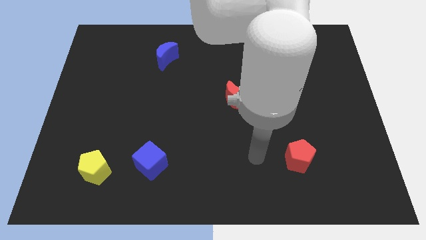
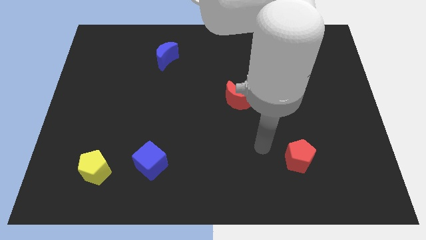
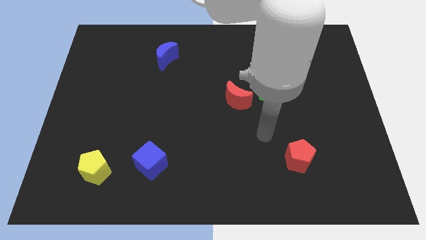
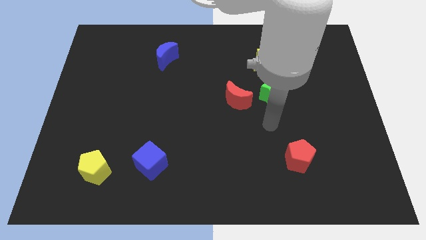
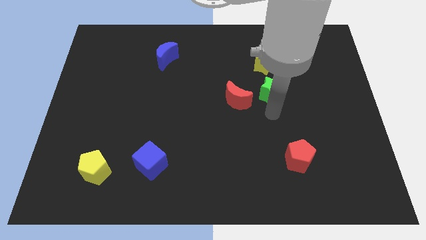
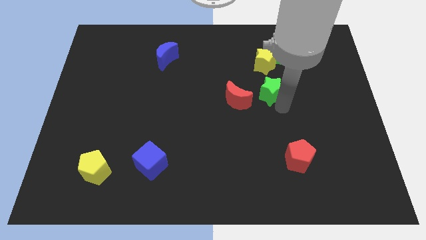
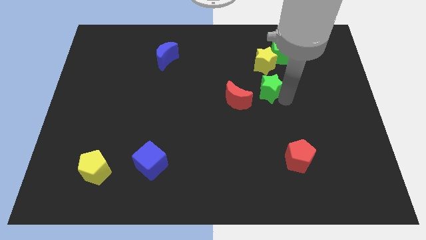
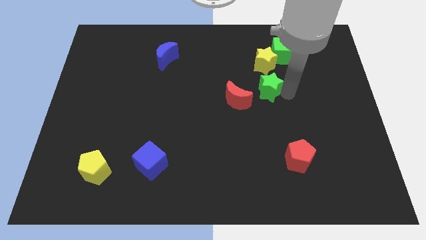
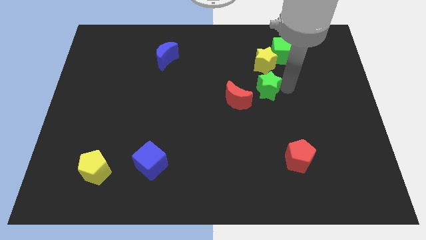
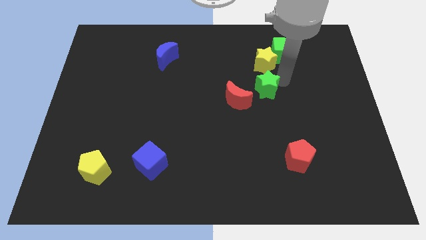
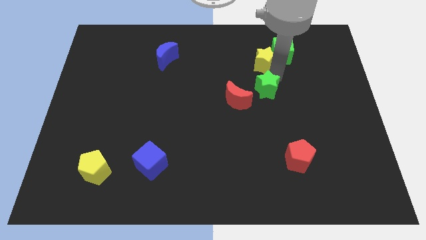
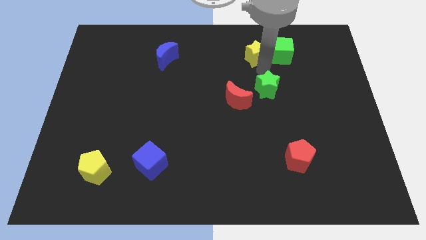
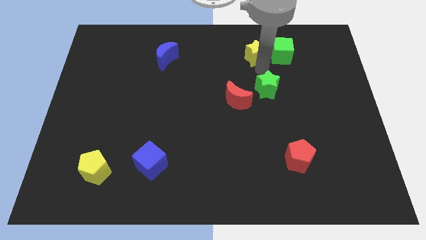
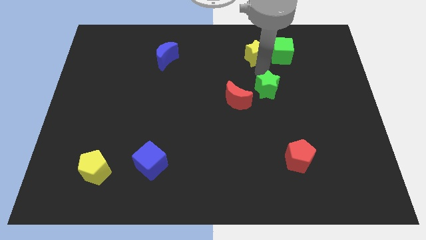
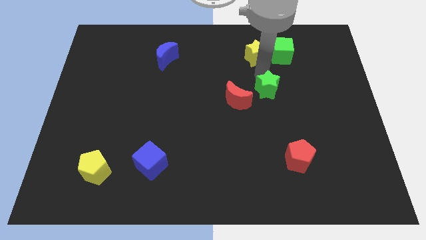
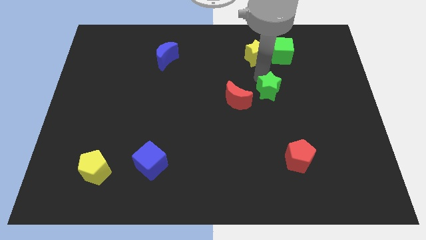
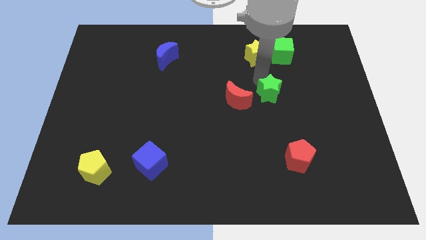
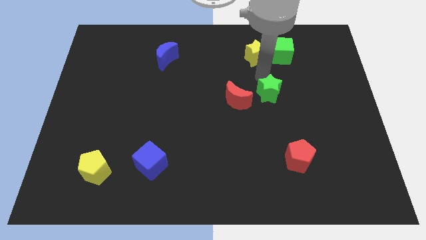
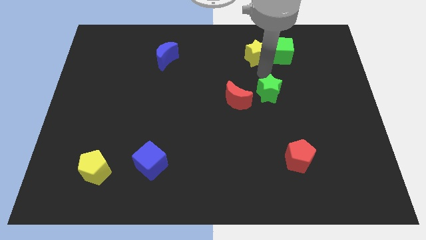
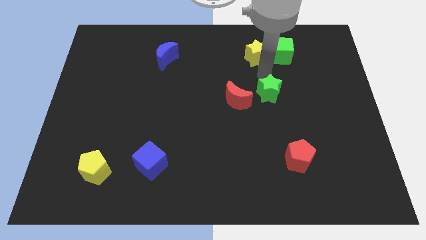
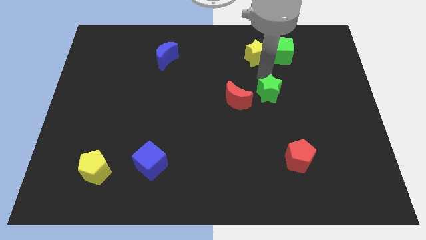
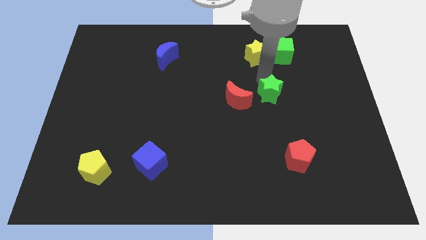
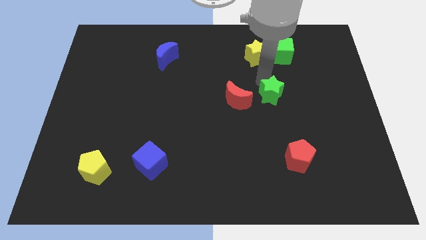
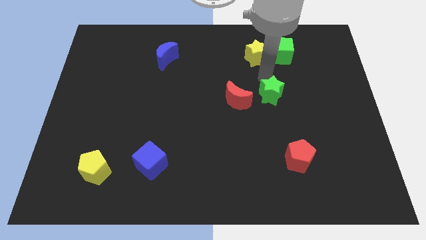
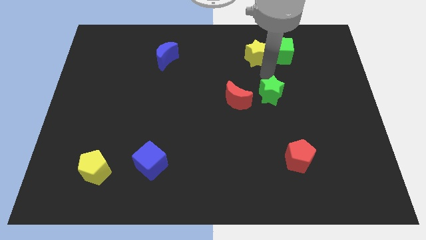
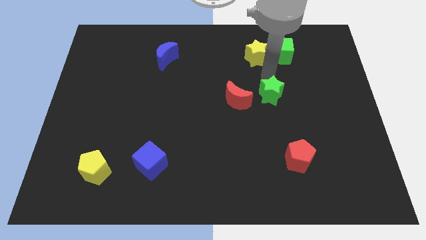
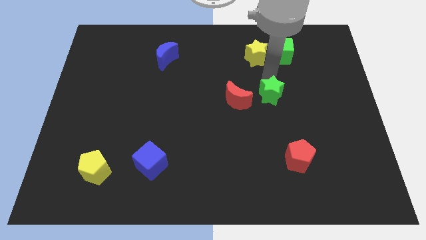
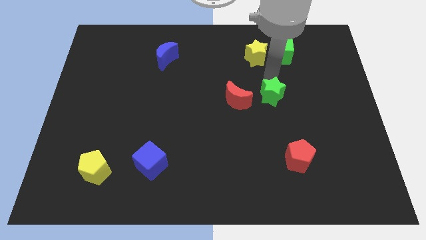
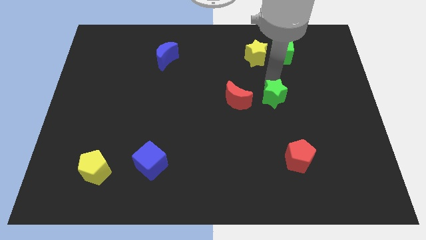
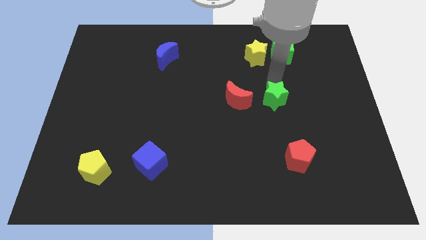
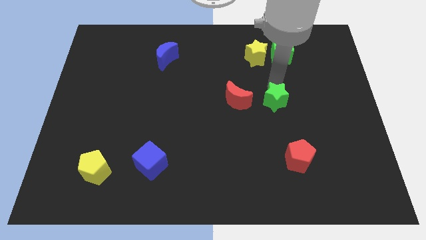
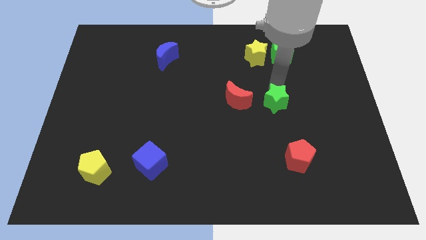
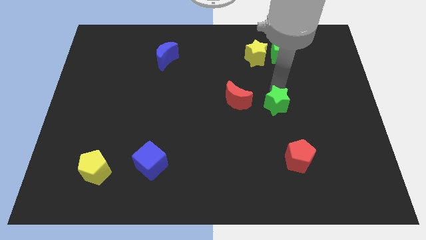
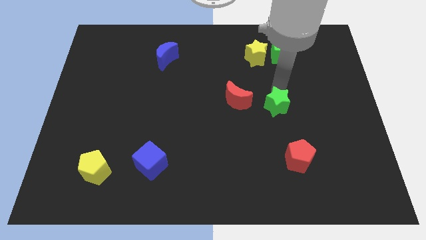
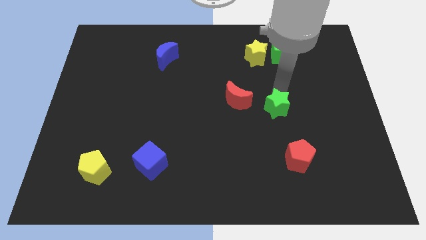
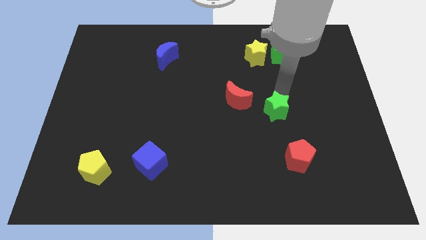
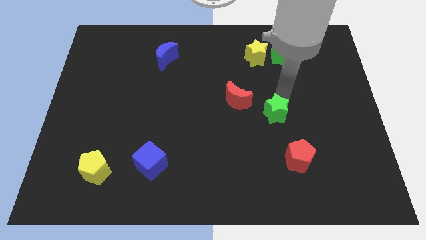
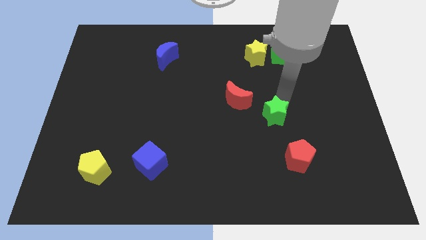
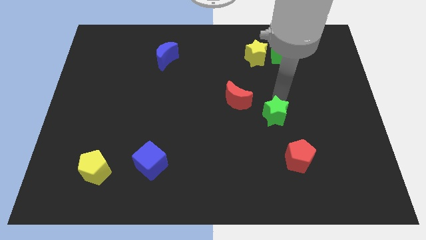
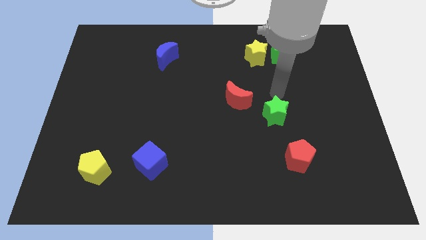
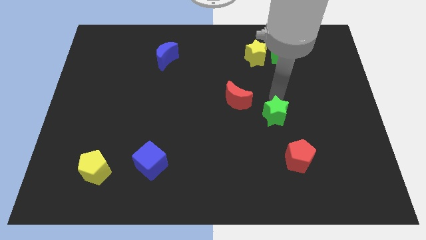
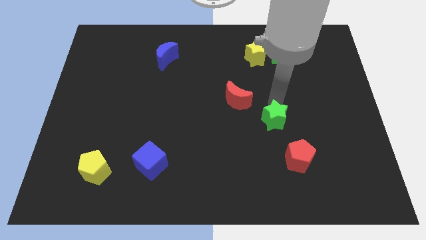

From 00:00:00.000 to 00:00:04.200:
move the green star down a little

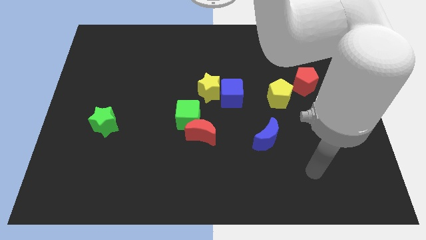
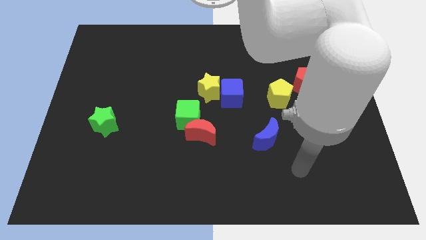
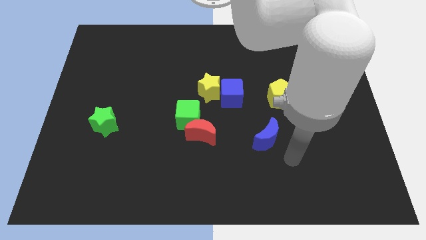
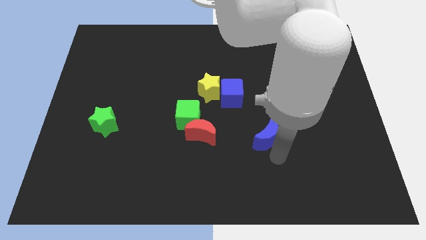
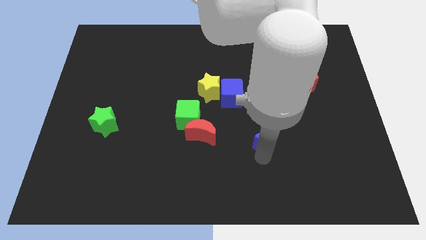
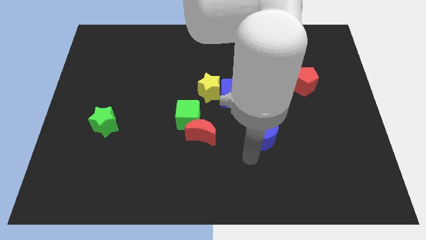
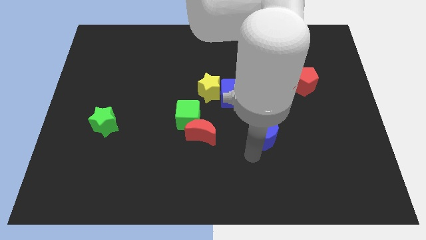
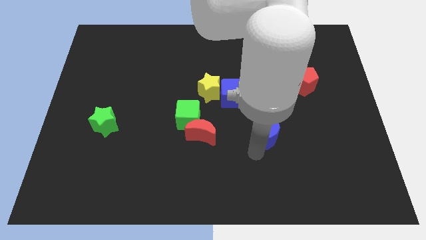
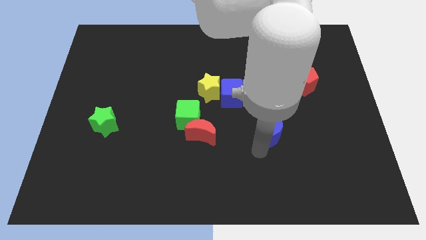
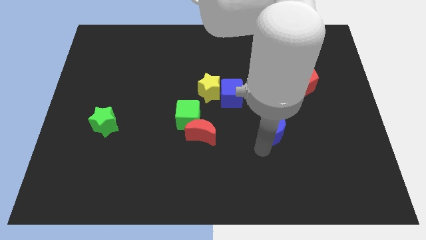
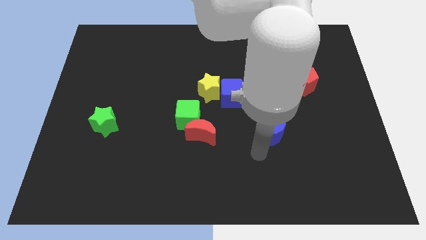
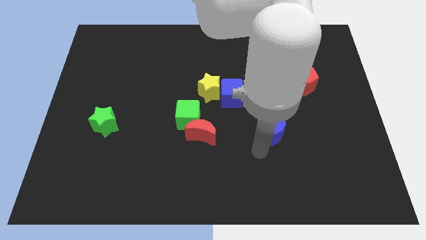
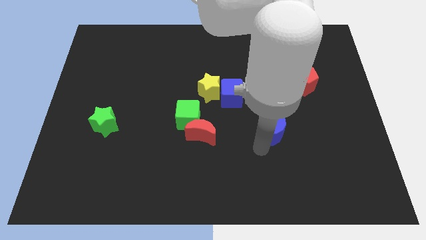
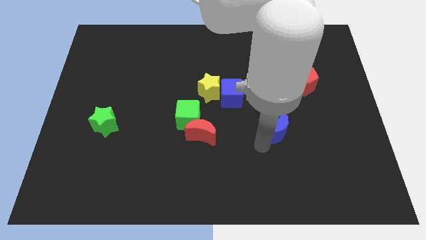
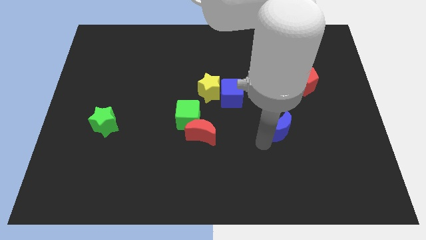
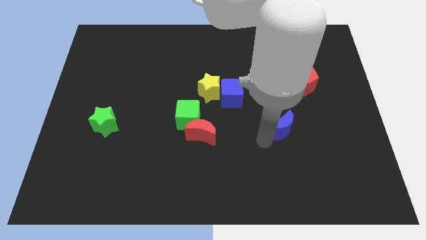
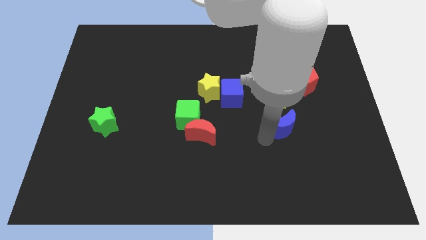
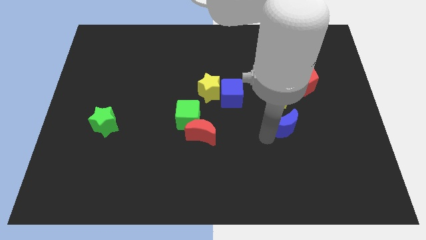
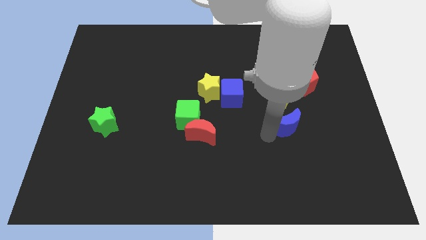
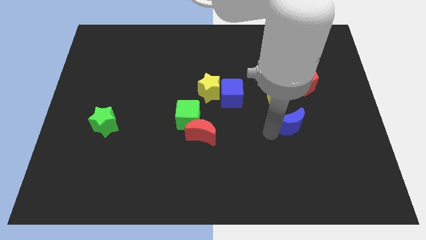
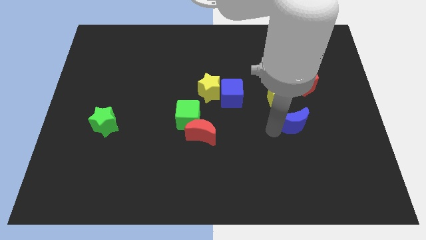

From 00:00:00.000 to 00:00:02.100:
push the blue moon diagonally up and to the right a bit

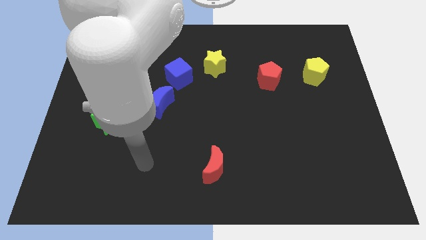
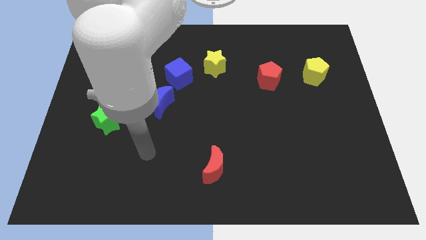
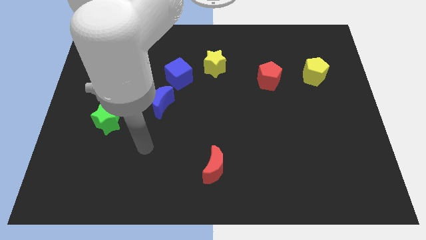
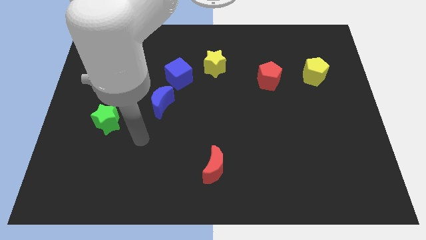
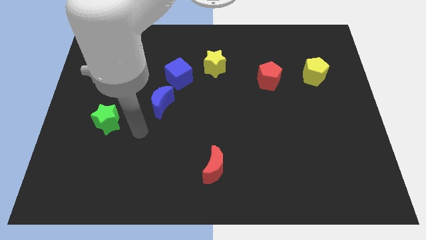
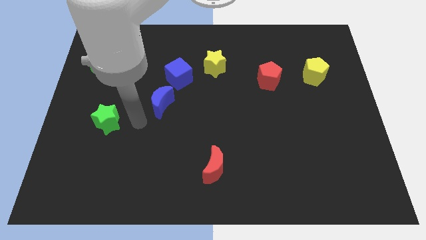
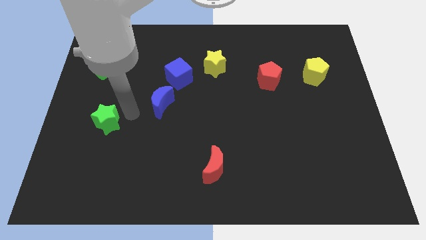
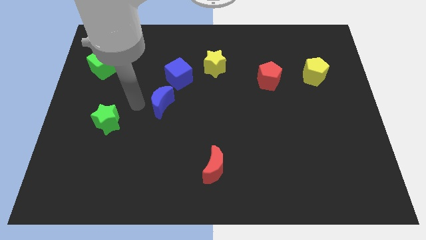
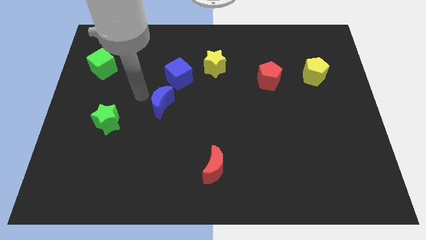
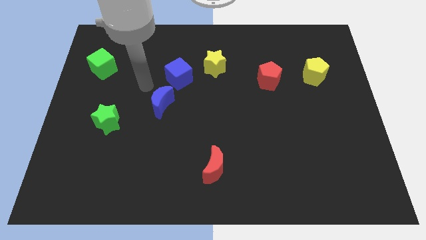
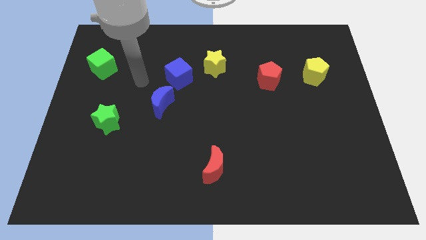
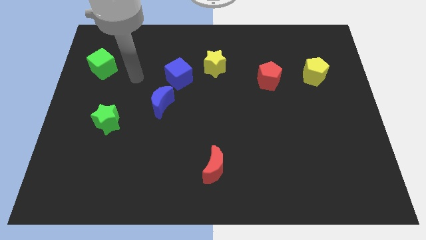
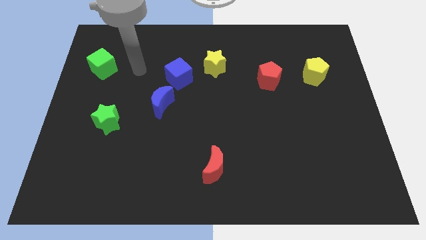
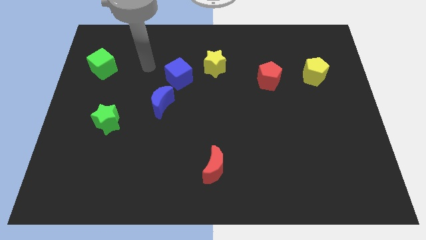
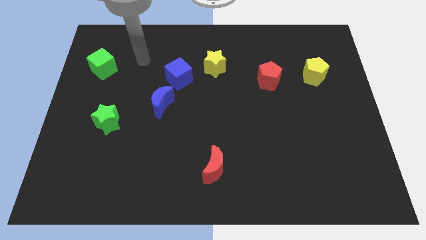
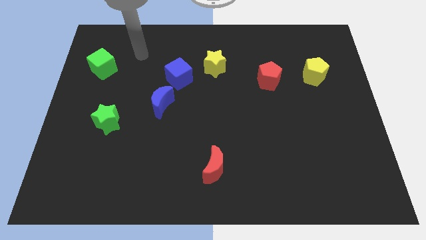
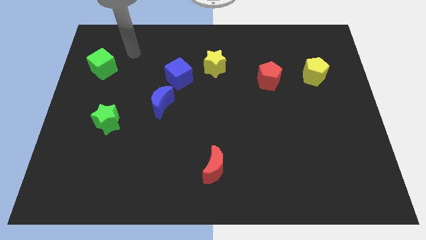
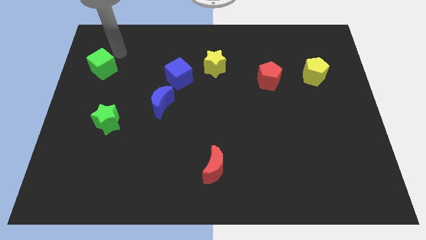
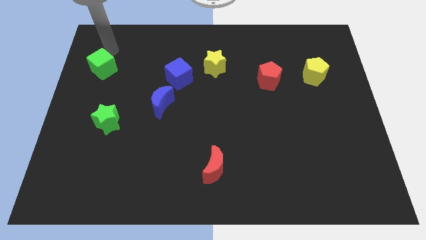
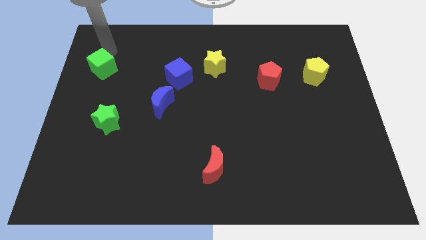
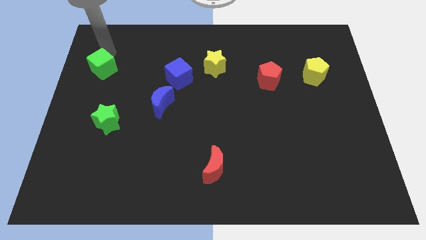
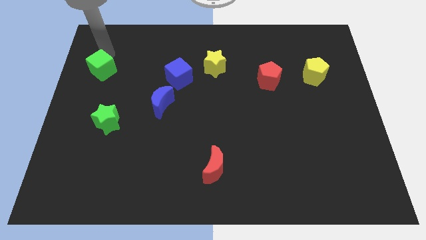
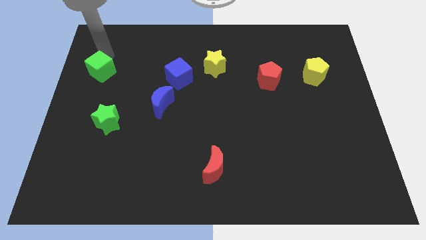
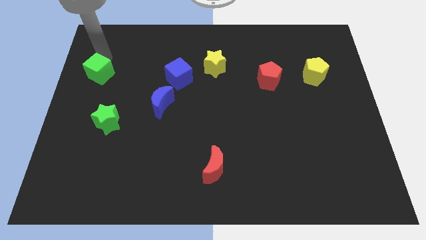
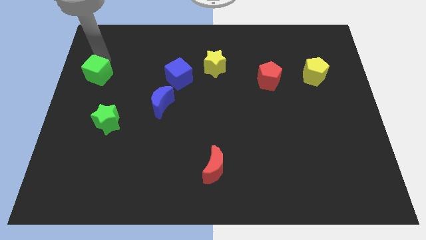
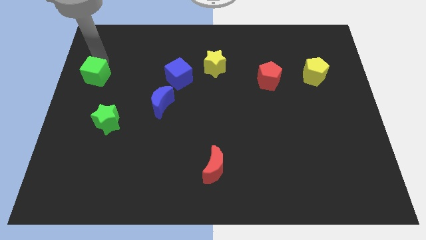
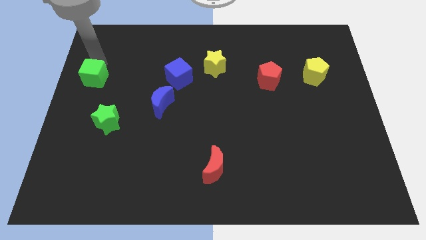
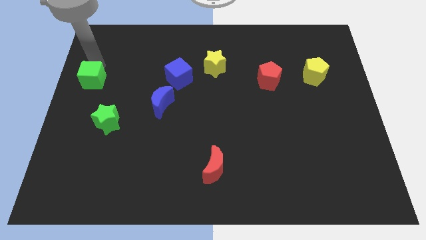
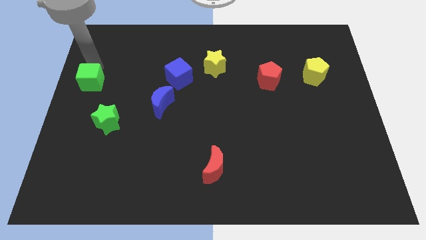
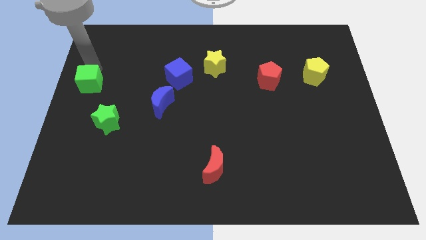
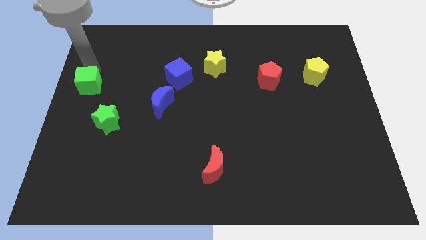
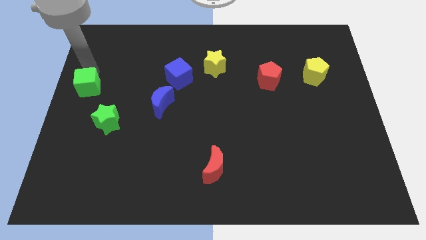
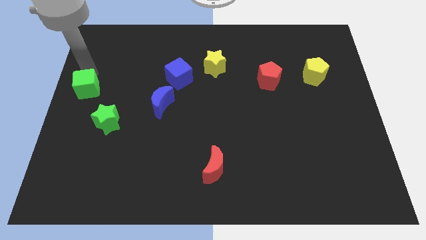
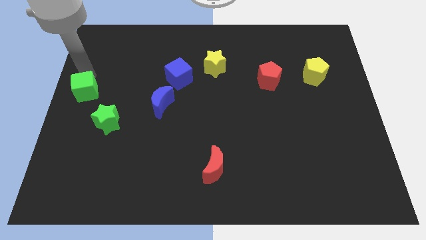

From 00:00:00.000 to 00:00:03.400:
slide the green cube a bit down
